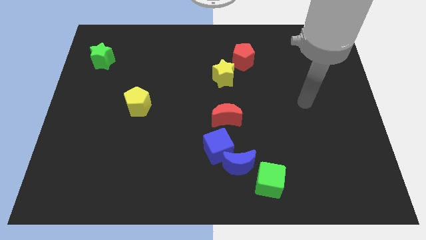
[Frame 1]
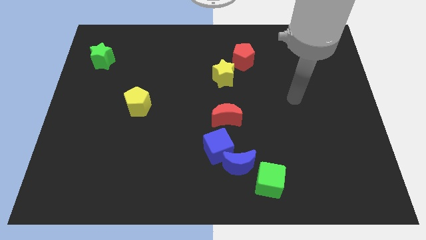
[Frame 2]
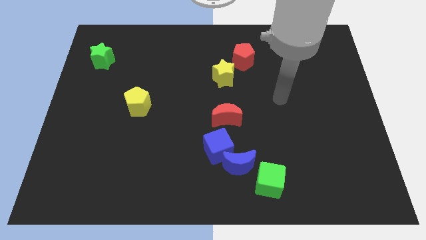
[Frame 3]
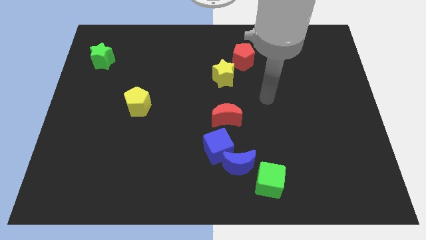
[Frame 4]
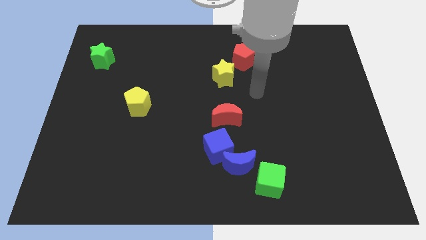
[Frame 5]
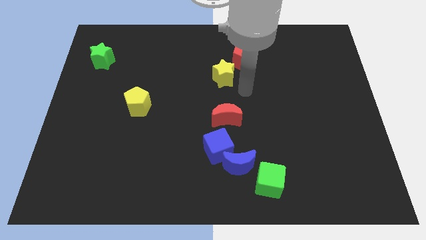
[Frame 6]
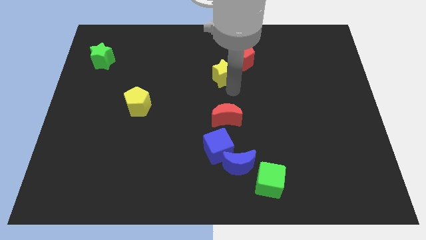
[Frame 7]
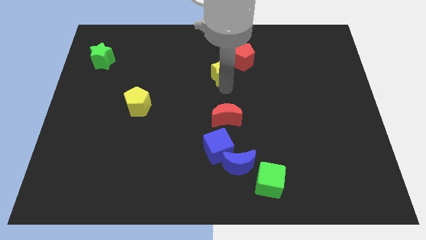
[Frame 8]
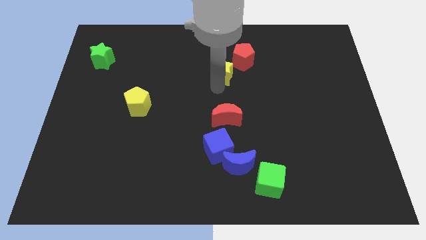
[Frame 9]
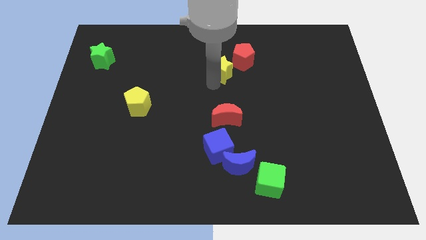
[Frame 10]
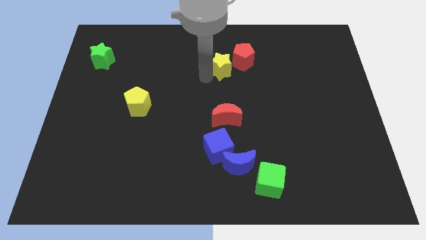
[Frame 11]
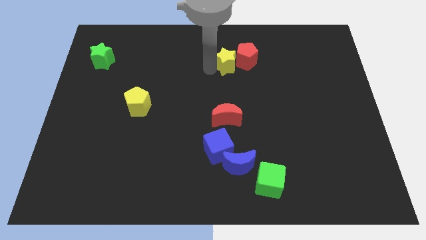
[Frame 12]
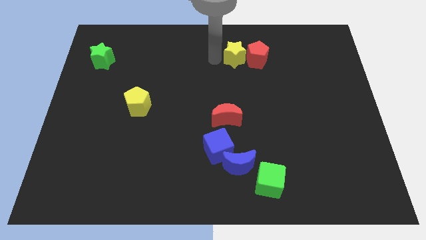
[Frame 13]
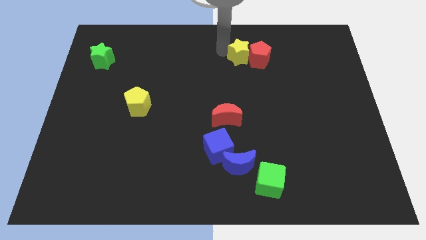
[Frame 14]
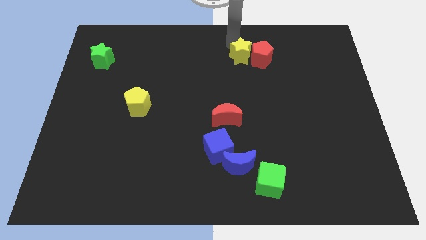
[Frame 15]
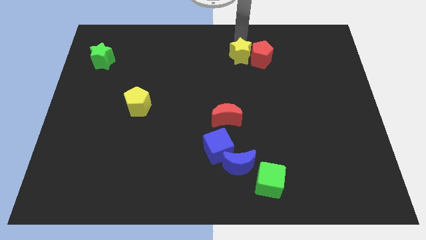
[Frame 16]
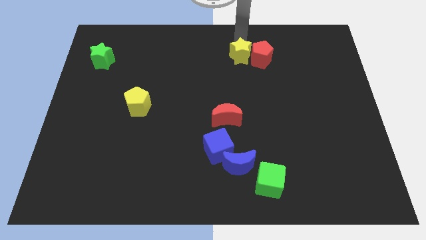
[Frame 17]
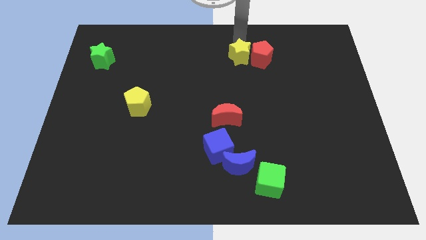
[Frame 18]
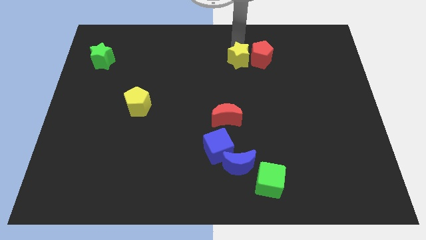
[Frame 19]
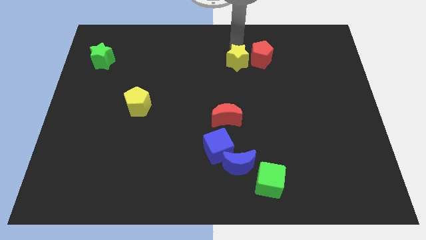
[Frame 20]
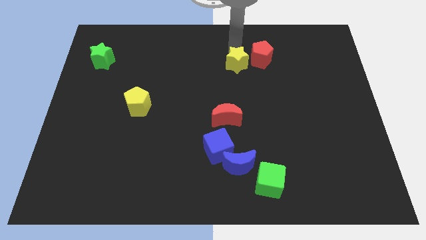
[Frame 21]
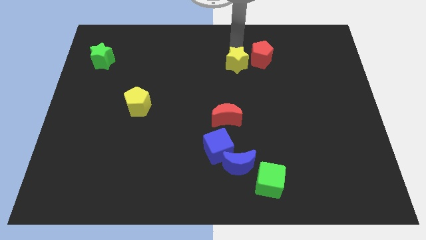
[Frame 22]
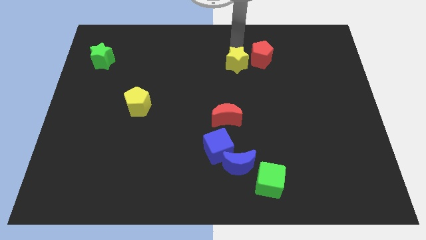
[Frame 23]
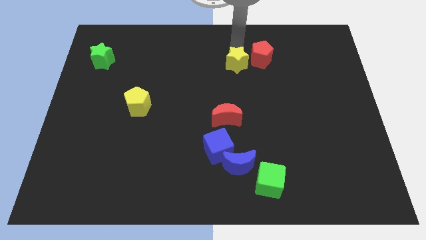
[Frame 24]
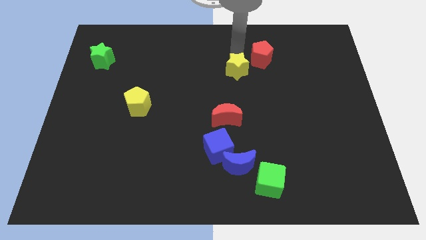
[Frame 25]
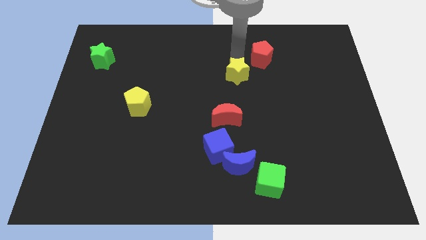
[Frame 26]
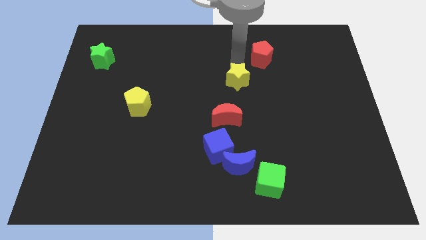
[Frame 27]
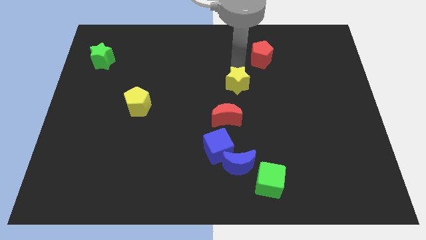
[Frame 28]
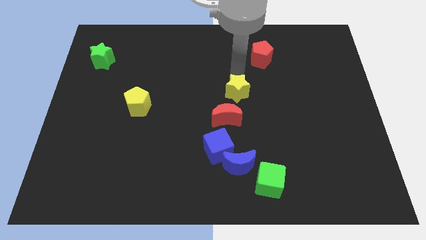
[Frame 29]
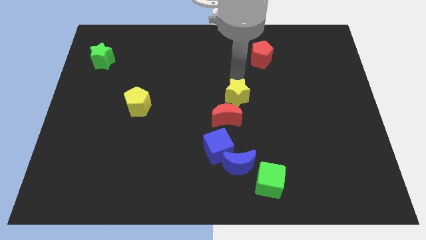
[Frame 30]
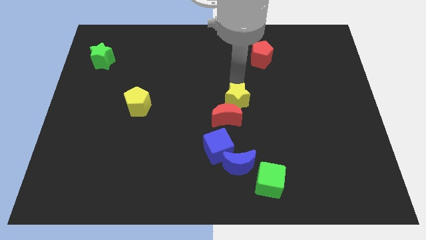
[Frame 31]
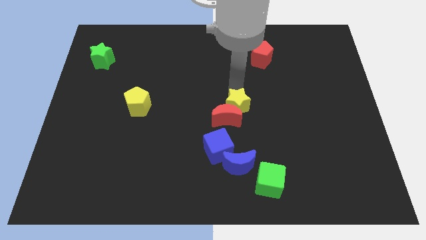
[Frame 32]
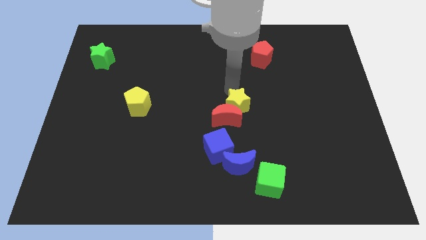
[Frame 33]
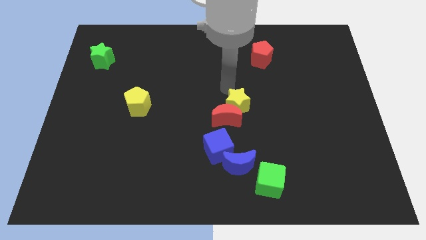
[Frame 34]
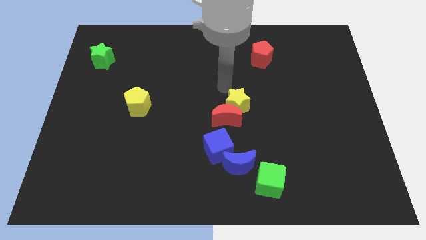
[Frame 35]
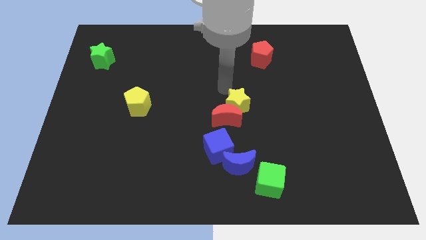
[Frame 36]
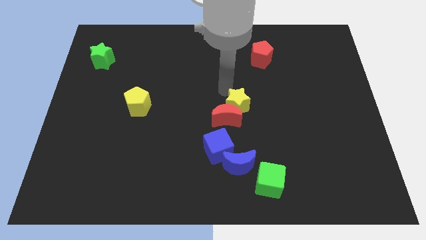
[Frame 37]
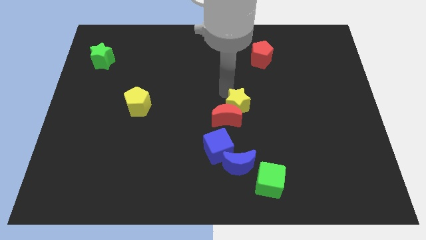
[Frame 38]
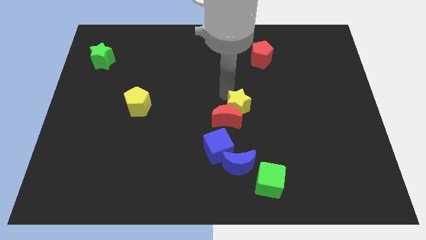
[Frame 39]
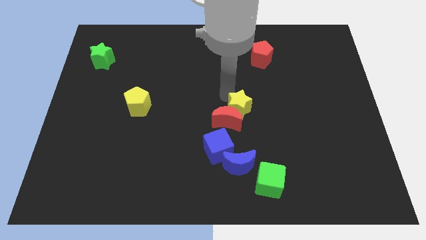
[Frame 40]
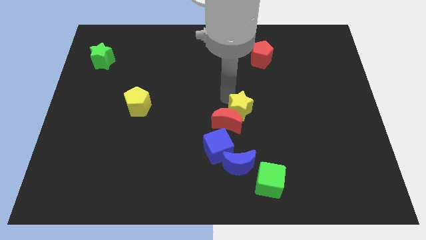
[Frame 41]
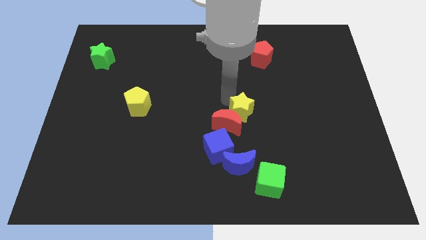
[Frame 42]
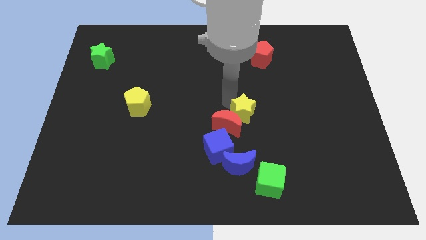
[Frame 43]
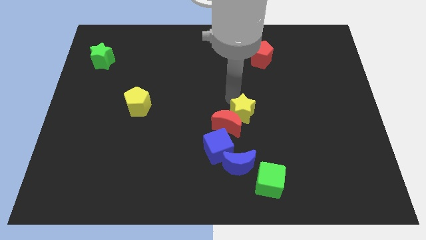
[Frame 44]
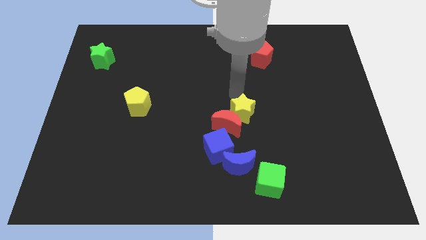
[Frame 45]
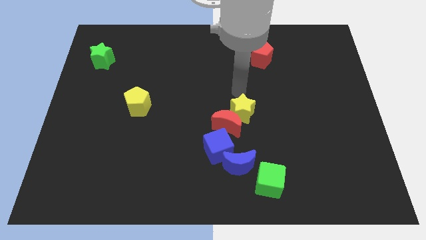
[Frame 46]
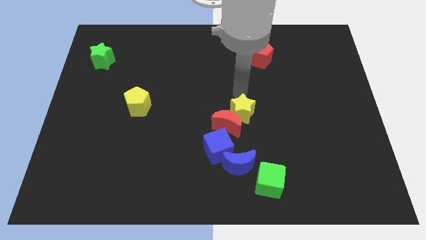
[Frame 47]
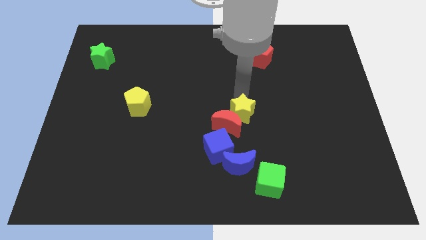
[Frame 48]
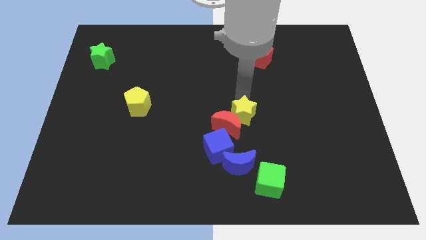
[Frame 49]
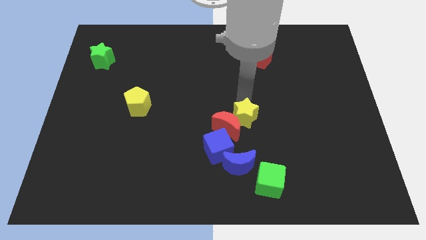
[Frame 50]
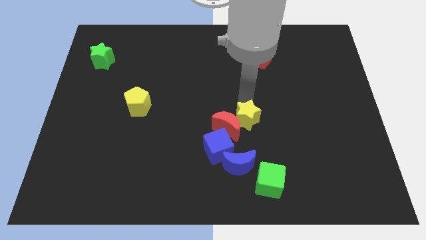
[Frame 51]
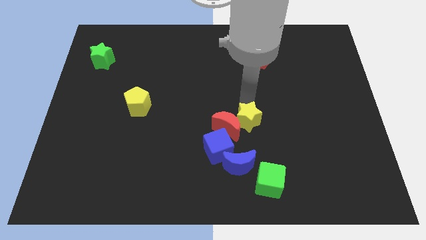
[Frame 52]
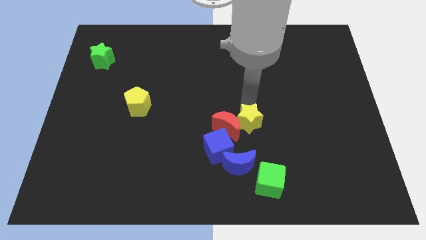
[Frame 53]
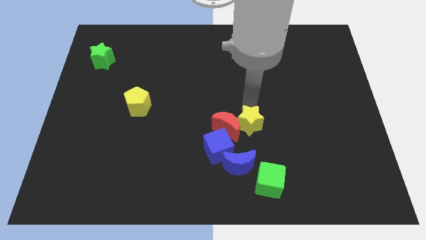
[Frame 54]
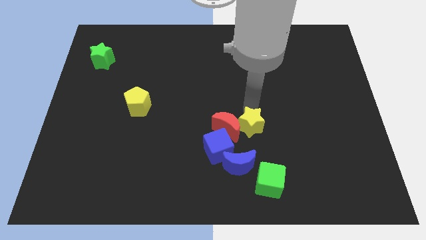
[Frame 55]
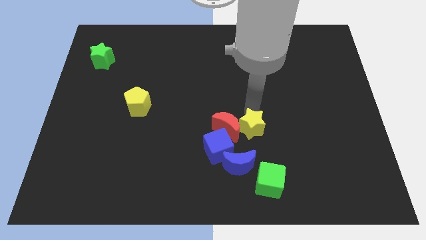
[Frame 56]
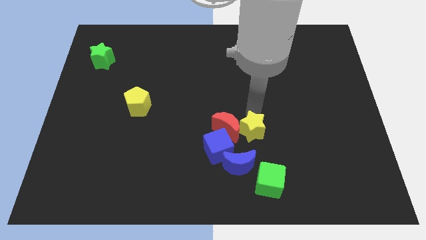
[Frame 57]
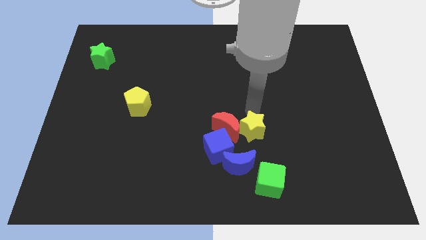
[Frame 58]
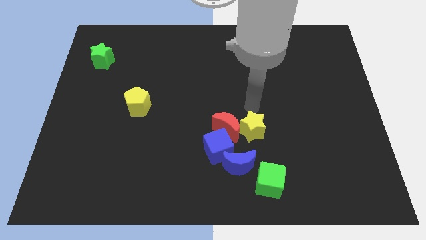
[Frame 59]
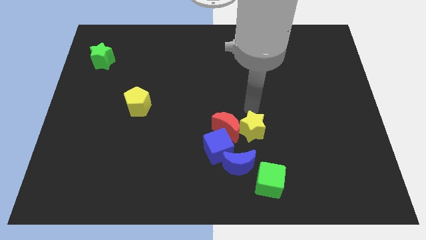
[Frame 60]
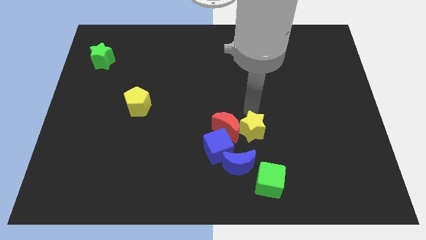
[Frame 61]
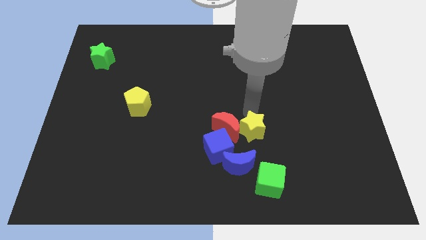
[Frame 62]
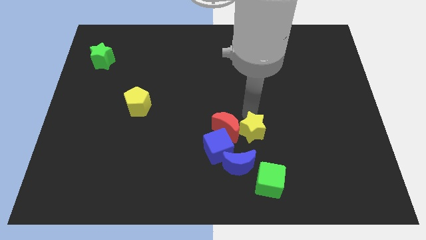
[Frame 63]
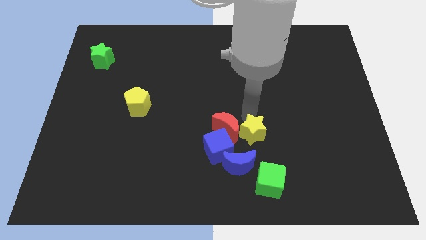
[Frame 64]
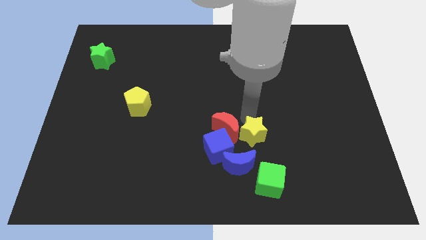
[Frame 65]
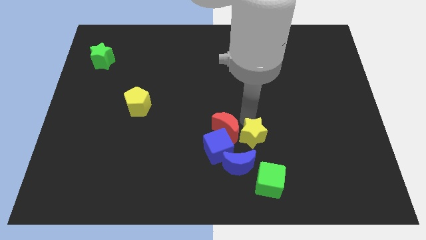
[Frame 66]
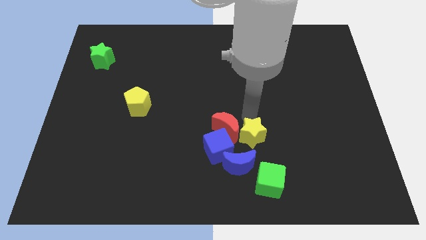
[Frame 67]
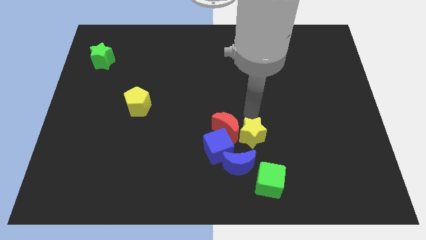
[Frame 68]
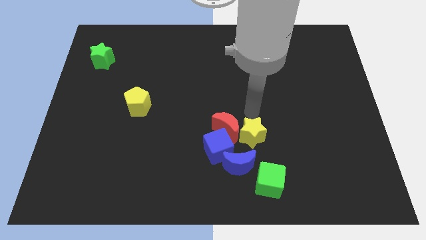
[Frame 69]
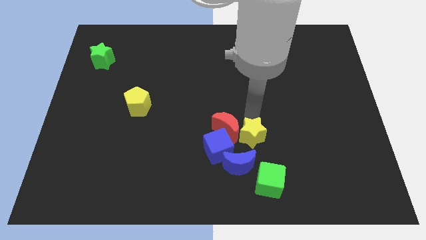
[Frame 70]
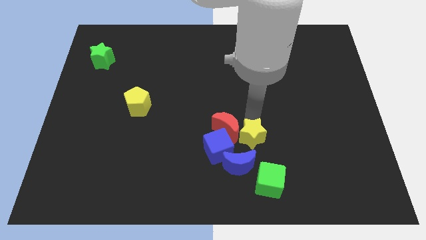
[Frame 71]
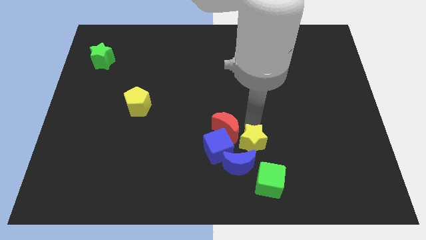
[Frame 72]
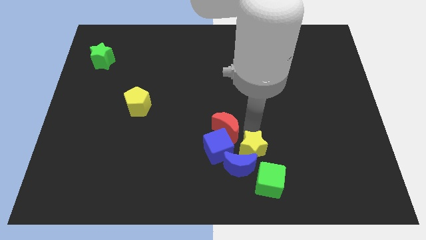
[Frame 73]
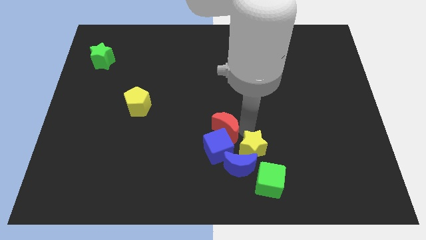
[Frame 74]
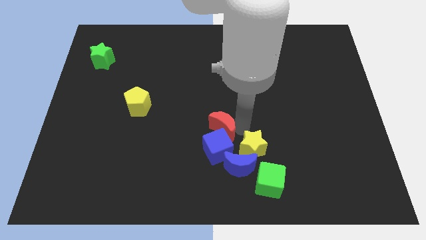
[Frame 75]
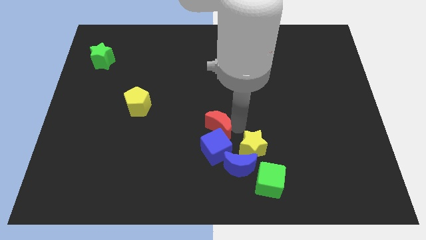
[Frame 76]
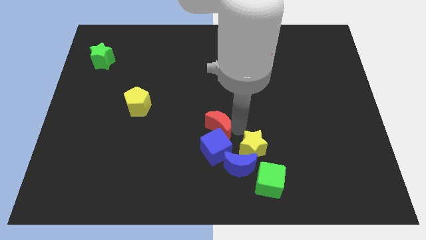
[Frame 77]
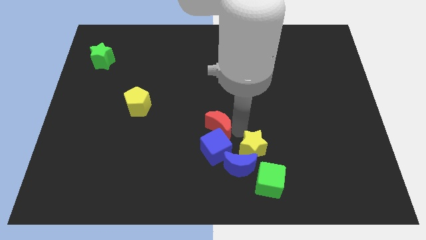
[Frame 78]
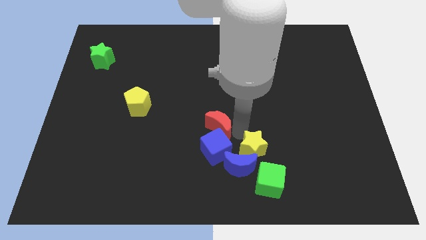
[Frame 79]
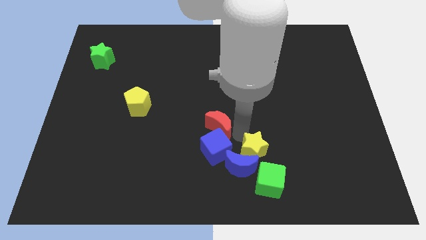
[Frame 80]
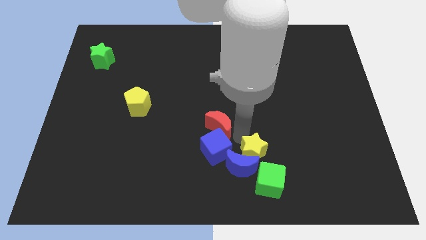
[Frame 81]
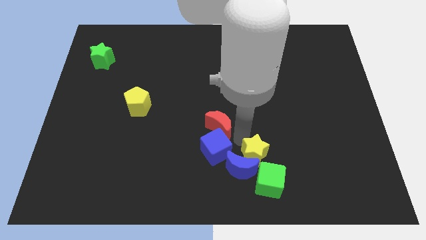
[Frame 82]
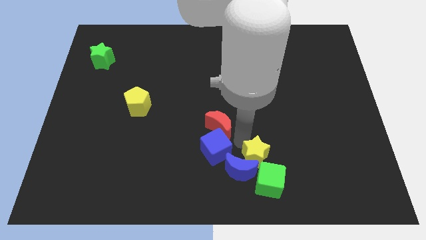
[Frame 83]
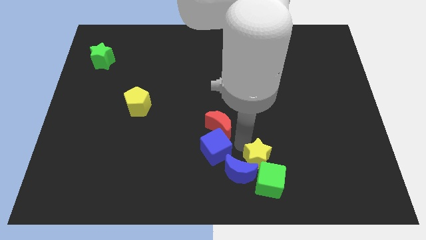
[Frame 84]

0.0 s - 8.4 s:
put the yellow star next to the green cube
